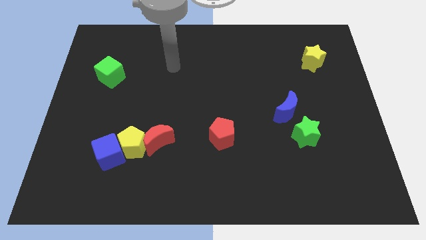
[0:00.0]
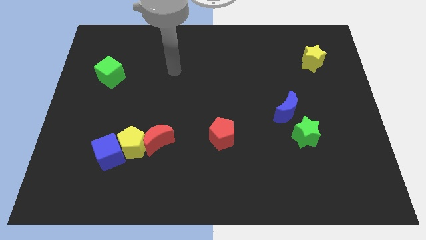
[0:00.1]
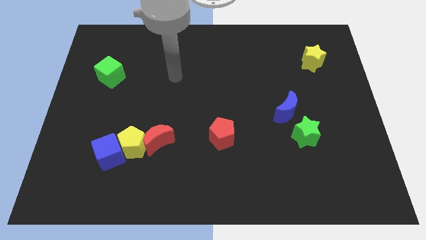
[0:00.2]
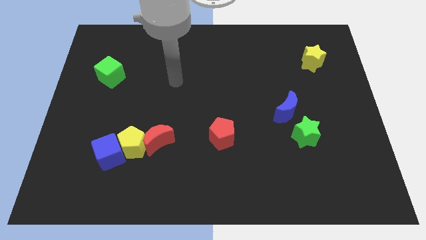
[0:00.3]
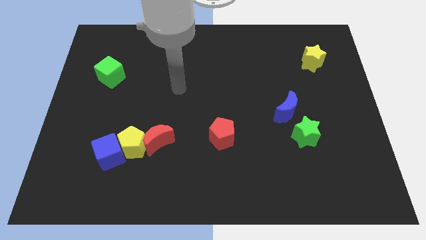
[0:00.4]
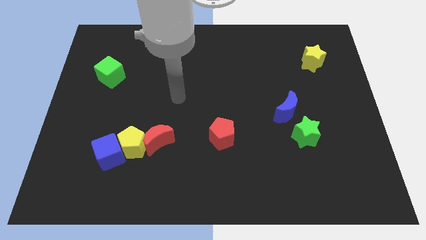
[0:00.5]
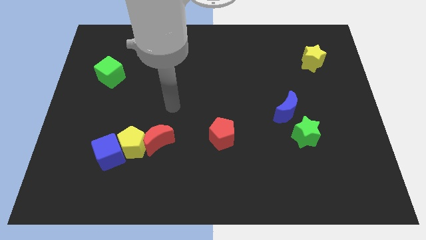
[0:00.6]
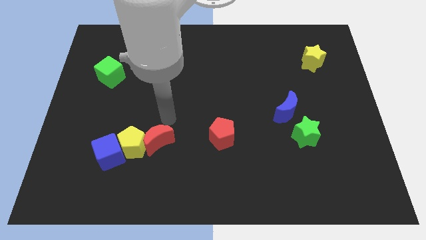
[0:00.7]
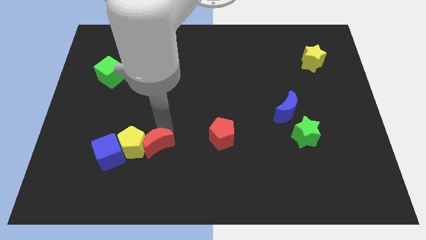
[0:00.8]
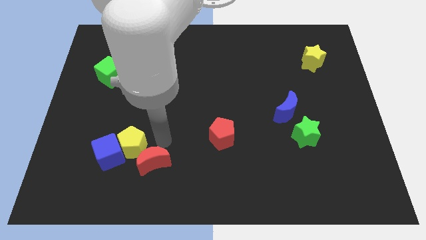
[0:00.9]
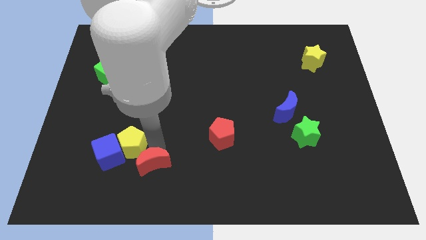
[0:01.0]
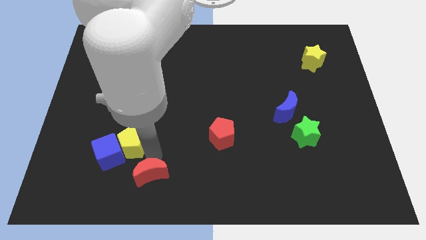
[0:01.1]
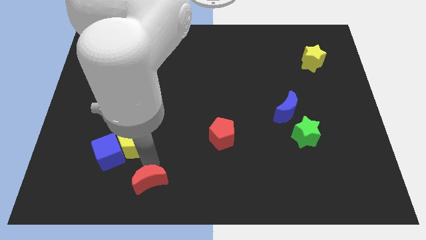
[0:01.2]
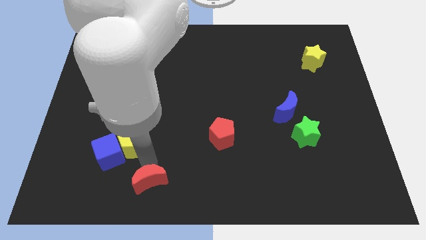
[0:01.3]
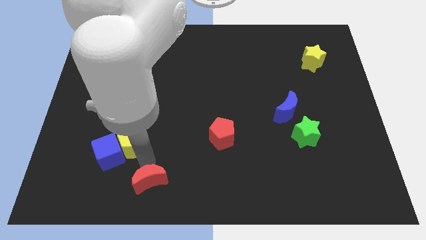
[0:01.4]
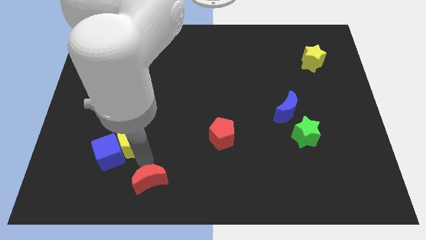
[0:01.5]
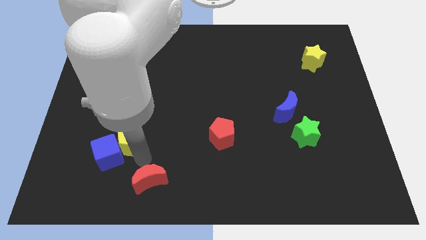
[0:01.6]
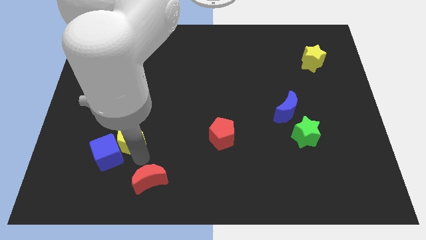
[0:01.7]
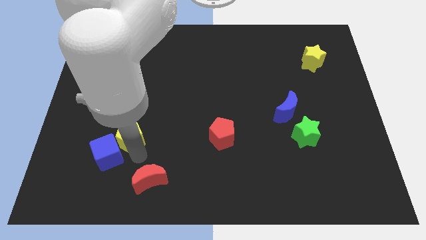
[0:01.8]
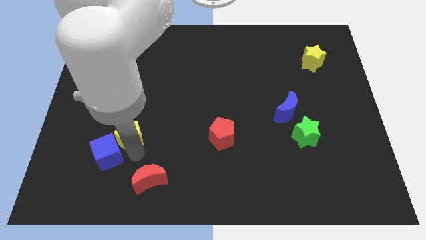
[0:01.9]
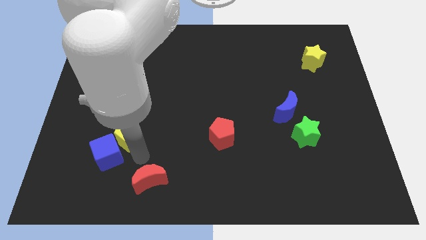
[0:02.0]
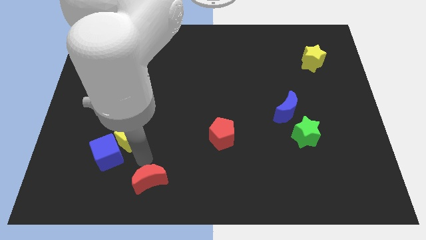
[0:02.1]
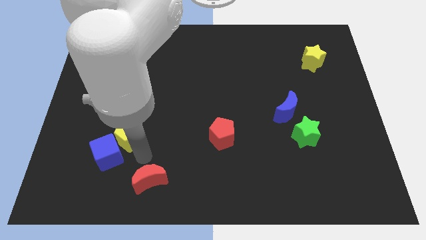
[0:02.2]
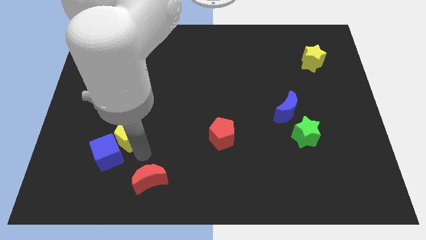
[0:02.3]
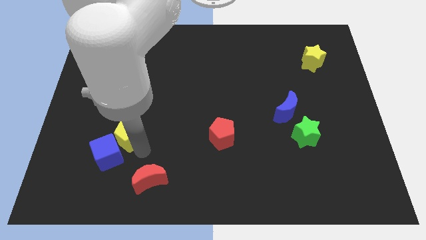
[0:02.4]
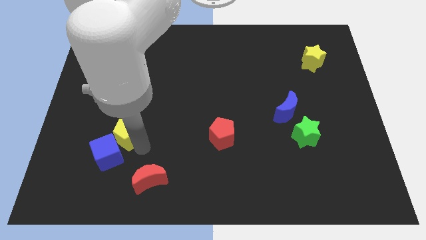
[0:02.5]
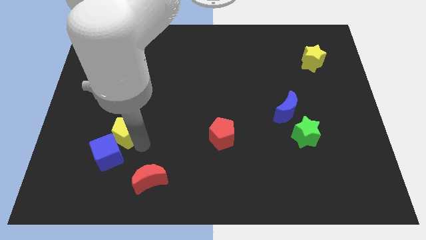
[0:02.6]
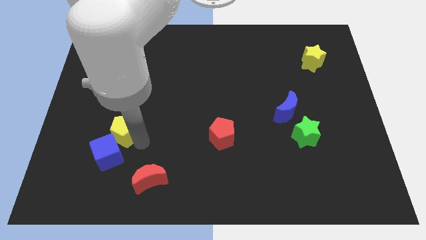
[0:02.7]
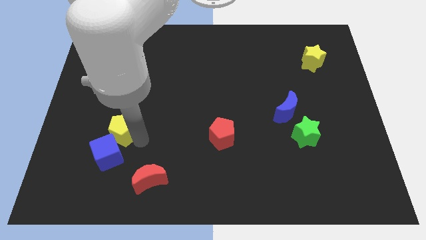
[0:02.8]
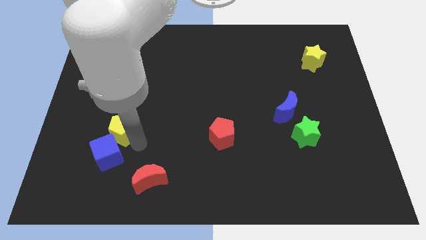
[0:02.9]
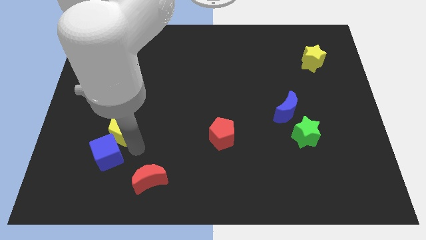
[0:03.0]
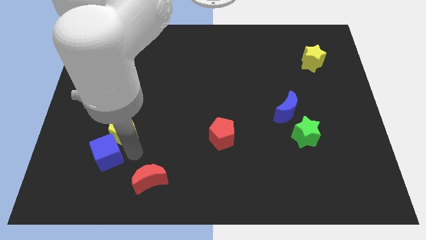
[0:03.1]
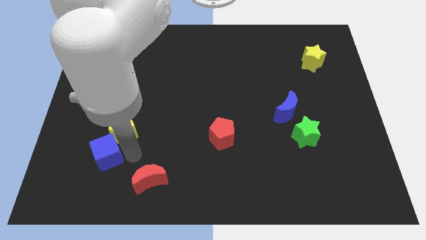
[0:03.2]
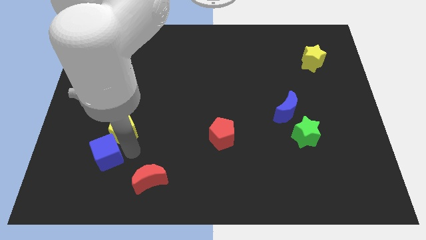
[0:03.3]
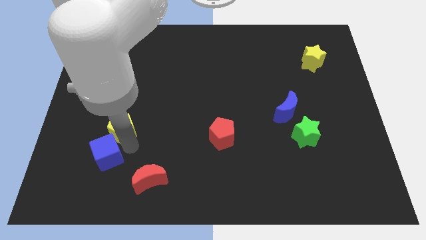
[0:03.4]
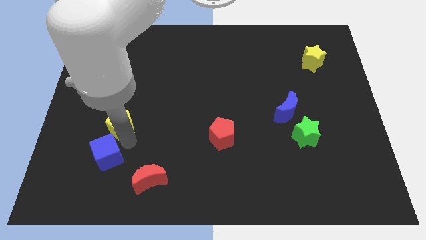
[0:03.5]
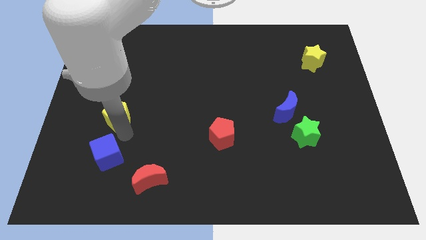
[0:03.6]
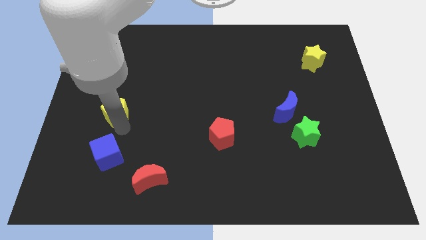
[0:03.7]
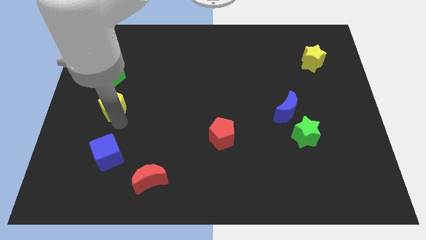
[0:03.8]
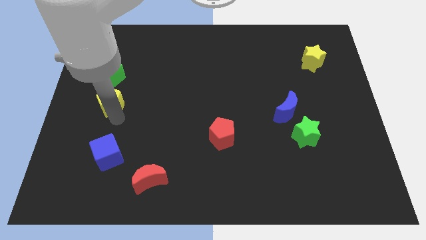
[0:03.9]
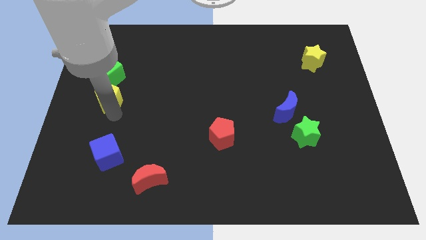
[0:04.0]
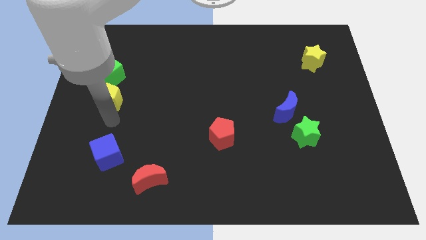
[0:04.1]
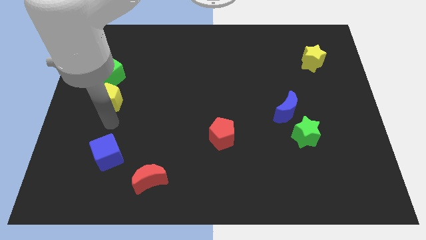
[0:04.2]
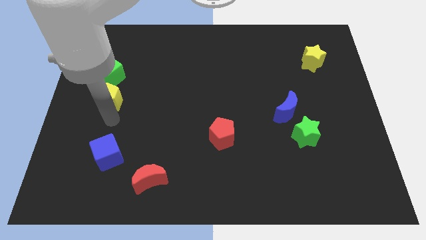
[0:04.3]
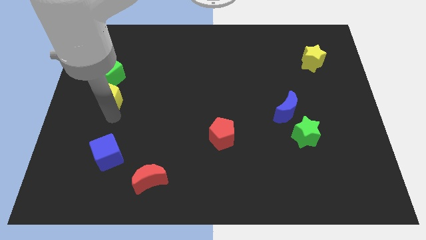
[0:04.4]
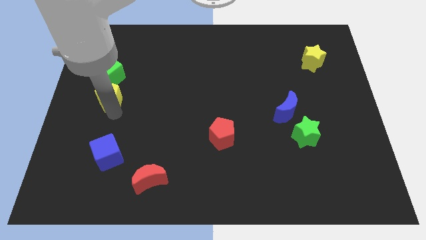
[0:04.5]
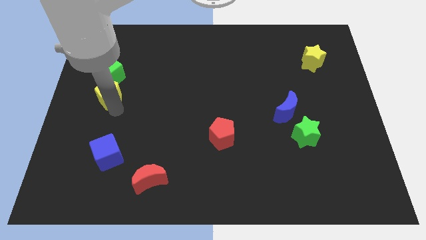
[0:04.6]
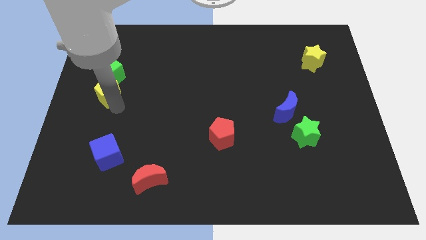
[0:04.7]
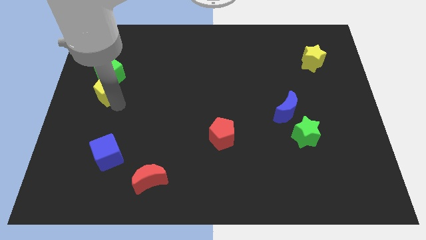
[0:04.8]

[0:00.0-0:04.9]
put the yellow pentagon to the green cube

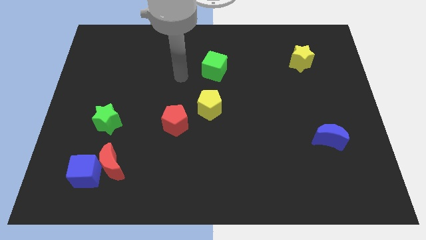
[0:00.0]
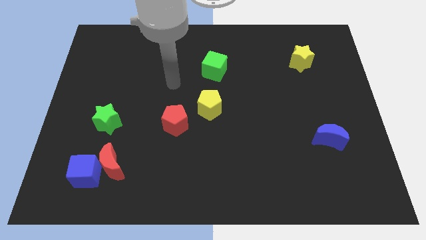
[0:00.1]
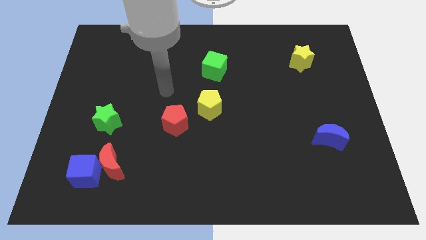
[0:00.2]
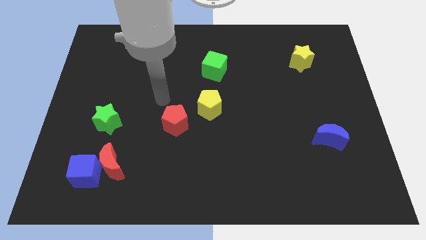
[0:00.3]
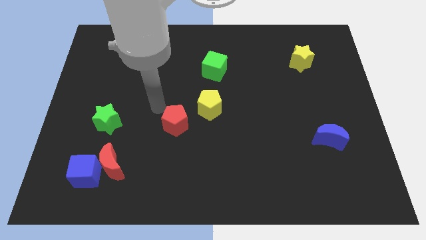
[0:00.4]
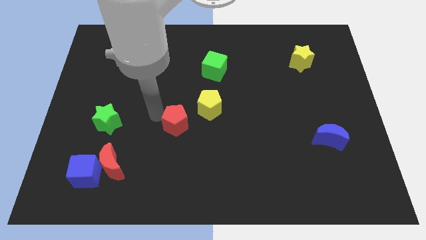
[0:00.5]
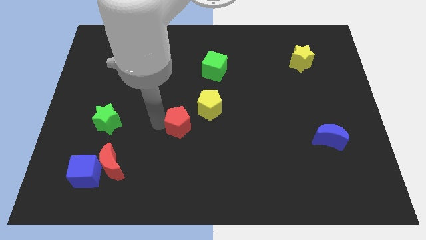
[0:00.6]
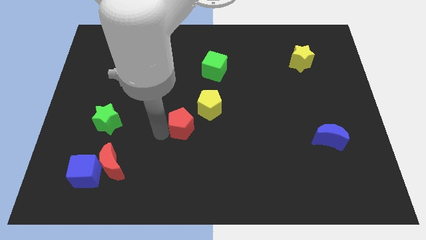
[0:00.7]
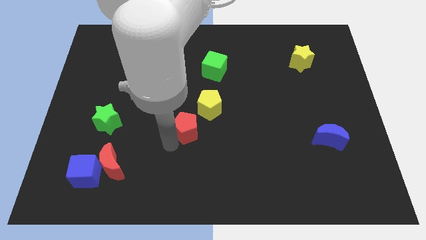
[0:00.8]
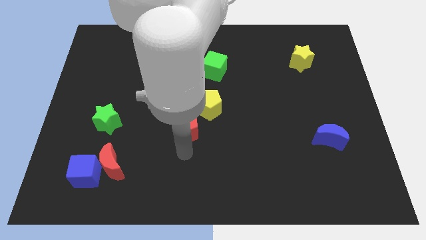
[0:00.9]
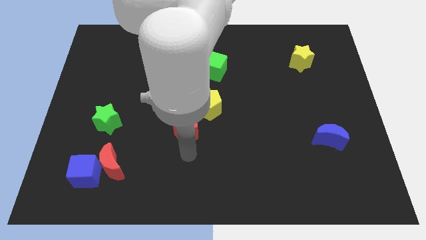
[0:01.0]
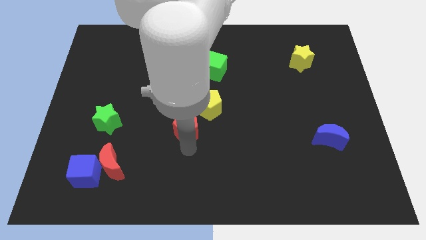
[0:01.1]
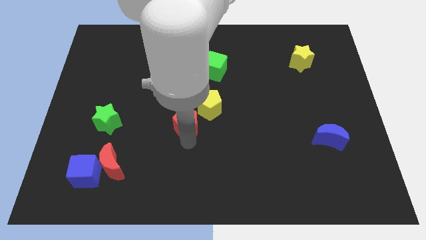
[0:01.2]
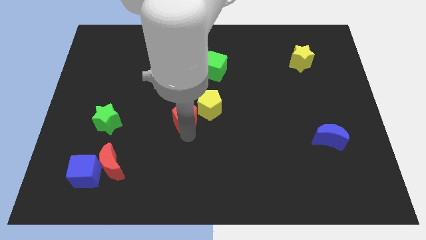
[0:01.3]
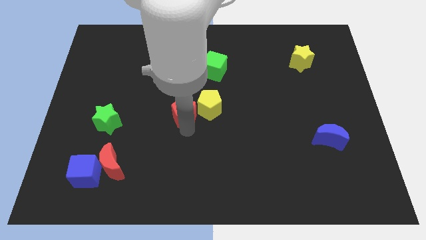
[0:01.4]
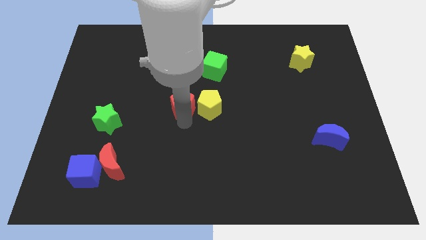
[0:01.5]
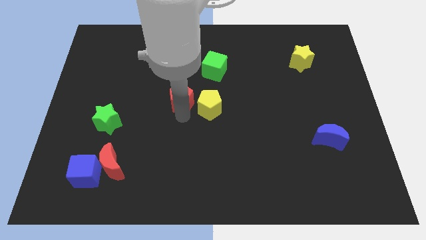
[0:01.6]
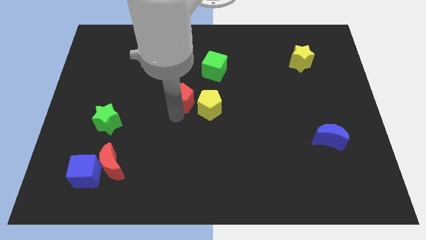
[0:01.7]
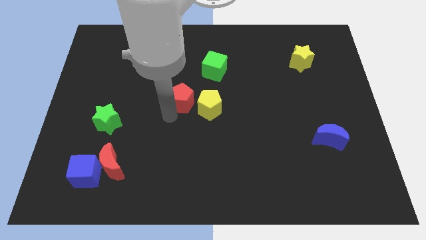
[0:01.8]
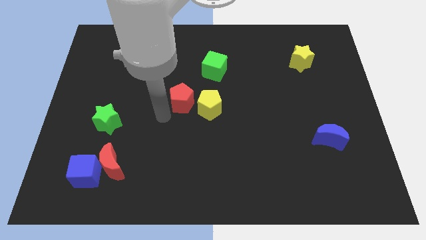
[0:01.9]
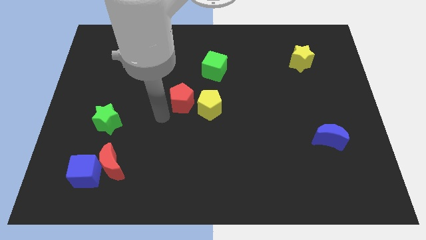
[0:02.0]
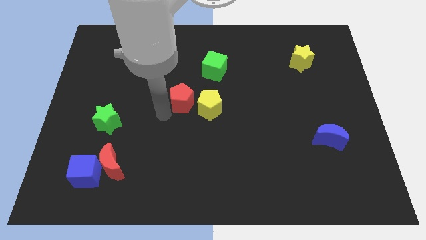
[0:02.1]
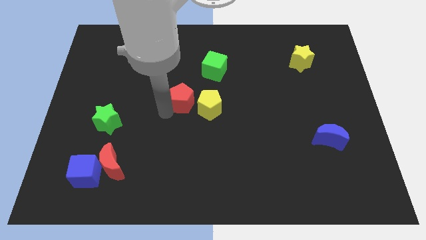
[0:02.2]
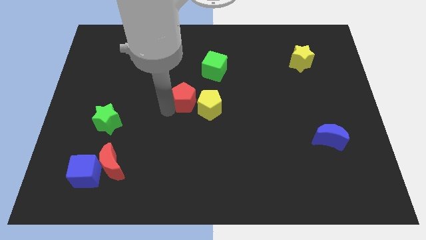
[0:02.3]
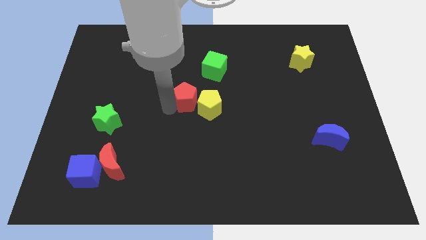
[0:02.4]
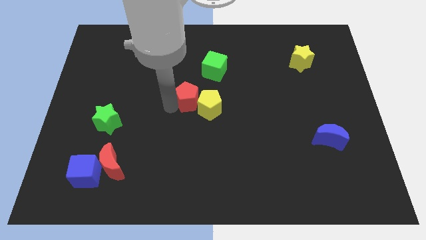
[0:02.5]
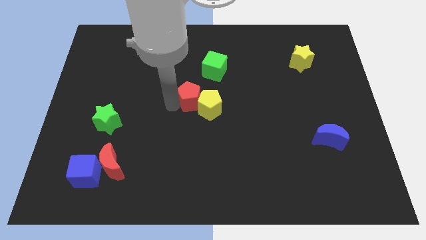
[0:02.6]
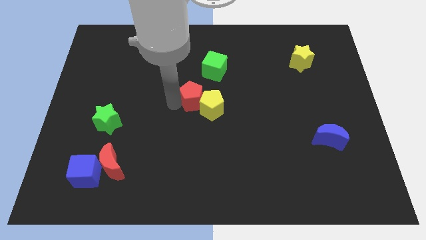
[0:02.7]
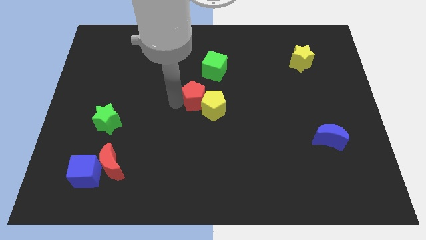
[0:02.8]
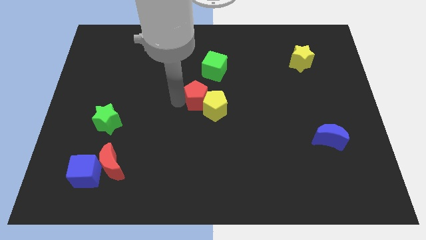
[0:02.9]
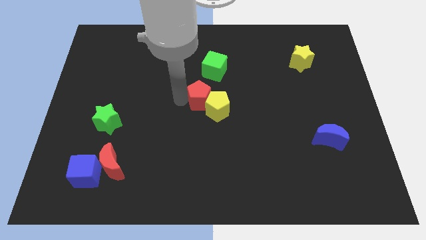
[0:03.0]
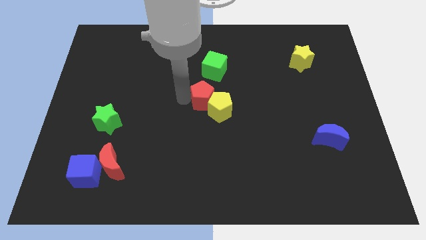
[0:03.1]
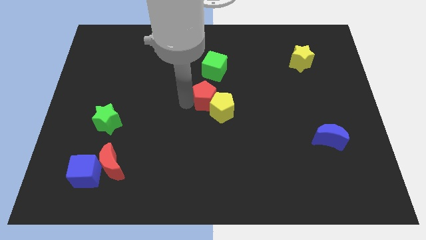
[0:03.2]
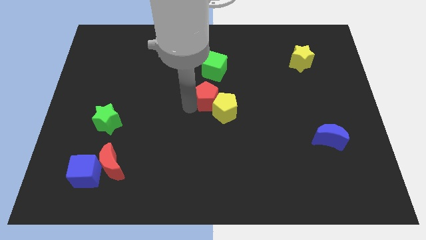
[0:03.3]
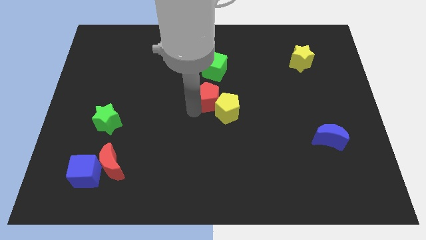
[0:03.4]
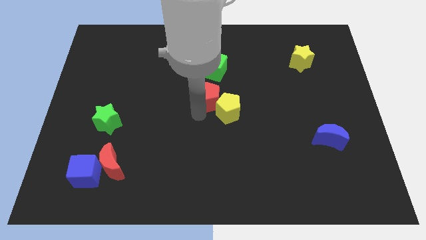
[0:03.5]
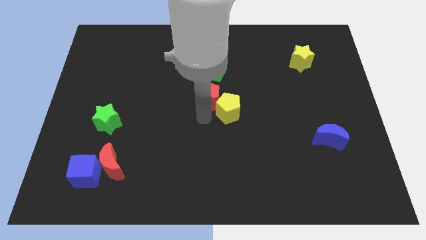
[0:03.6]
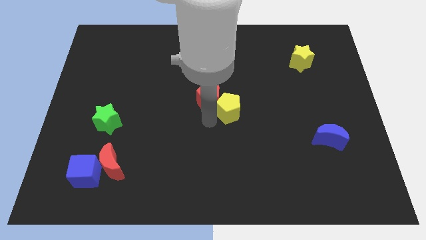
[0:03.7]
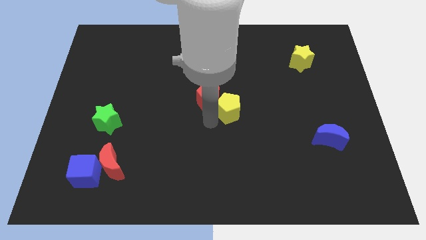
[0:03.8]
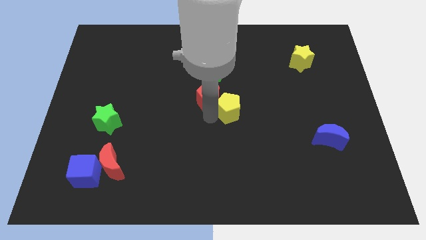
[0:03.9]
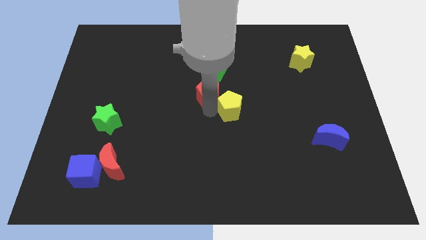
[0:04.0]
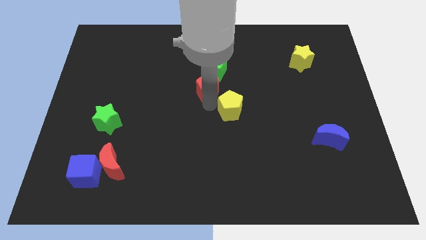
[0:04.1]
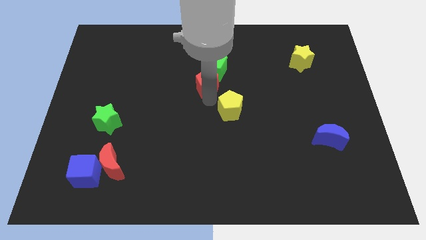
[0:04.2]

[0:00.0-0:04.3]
push the red pentagon towards the green cube
